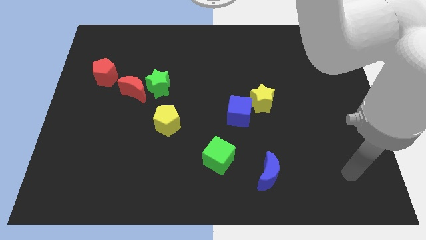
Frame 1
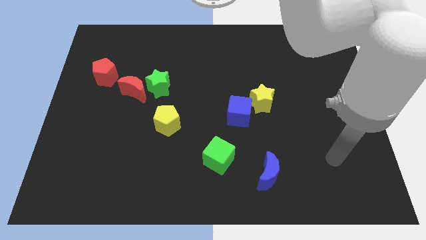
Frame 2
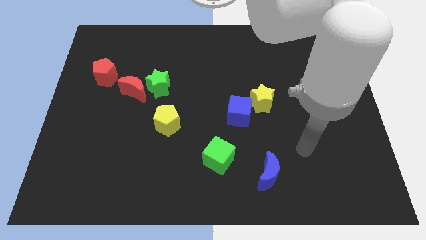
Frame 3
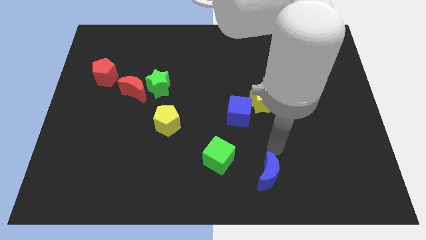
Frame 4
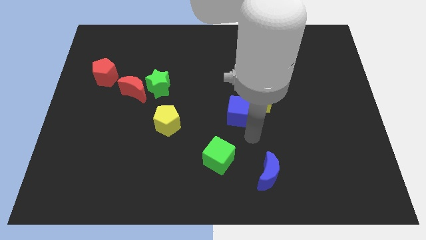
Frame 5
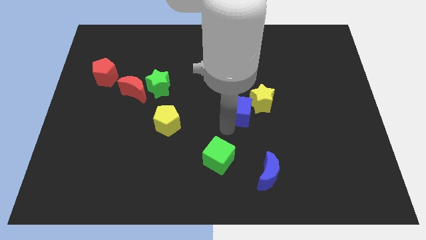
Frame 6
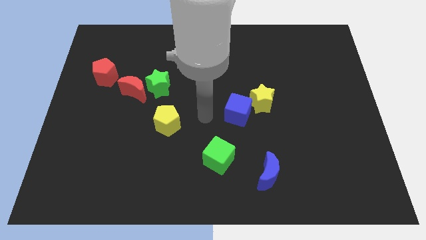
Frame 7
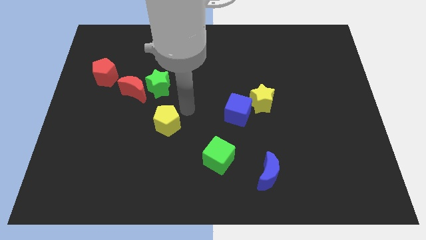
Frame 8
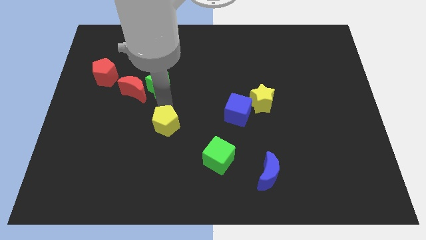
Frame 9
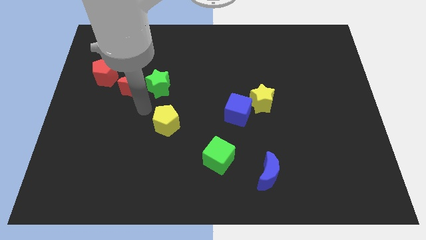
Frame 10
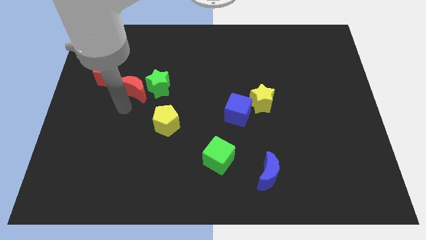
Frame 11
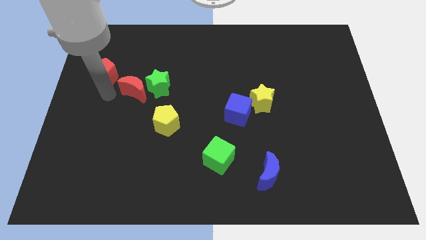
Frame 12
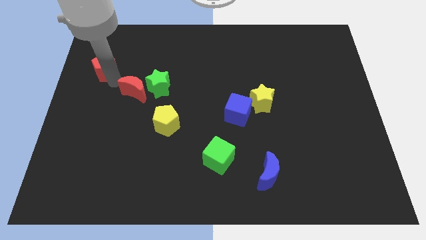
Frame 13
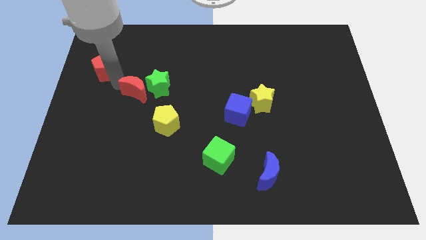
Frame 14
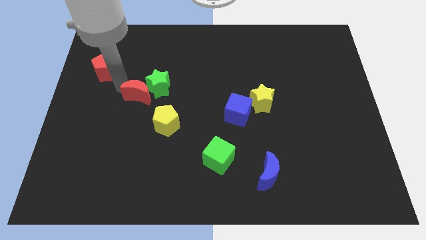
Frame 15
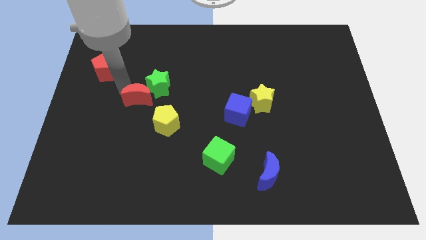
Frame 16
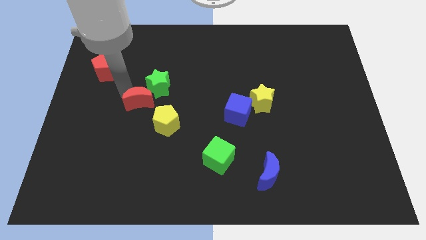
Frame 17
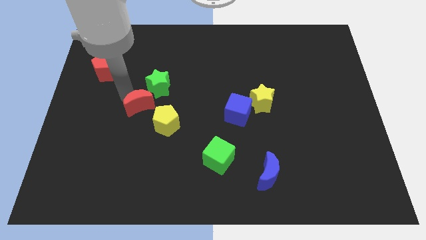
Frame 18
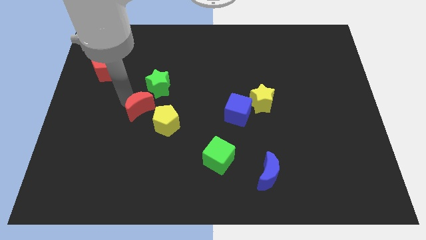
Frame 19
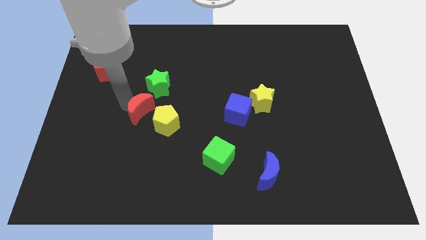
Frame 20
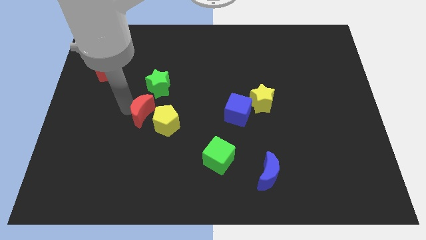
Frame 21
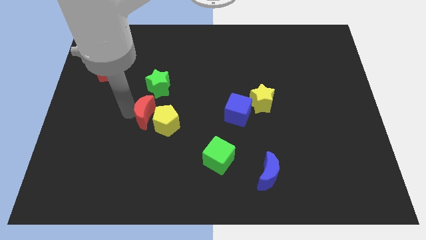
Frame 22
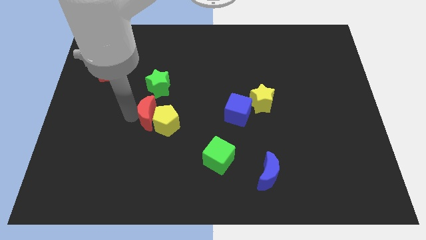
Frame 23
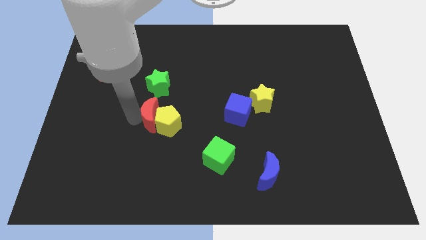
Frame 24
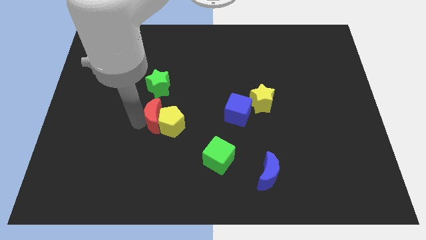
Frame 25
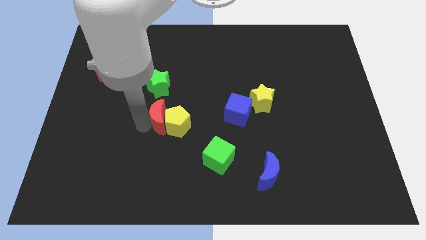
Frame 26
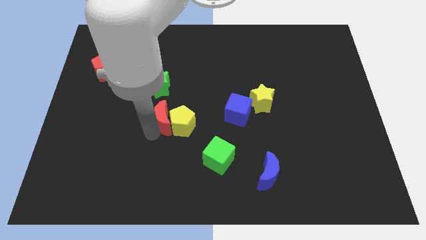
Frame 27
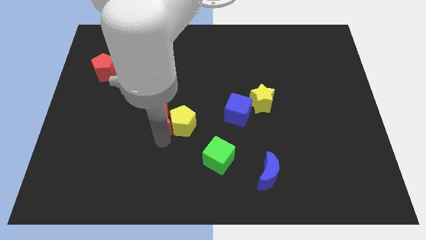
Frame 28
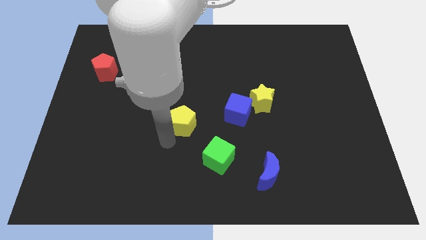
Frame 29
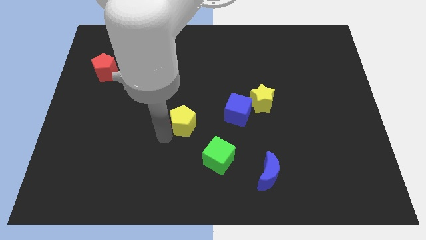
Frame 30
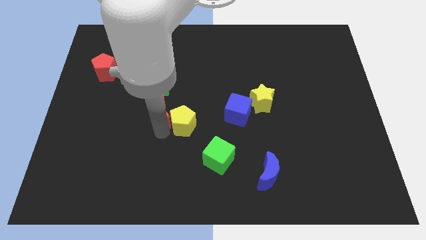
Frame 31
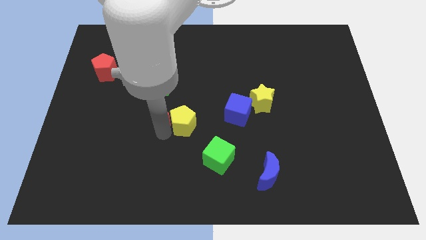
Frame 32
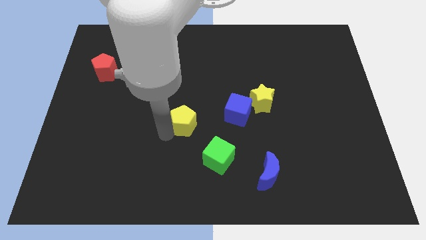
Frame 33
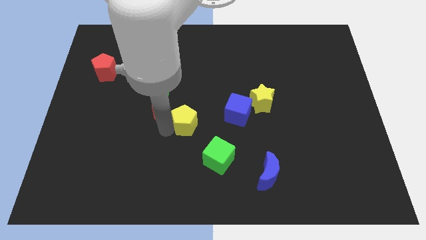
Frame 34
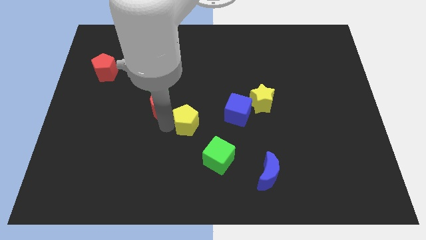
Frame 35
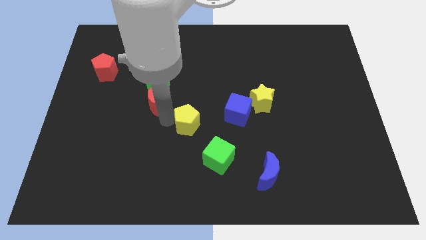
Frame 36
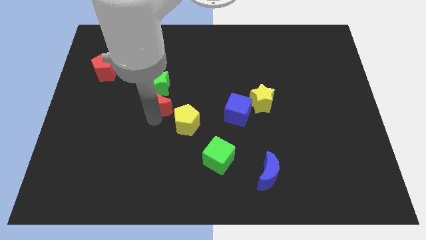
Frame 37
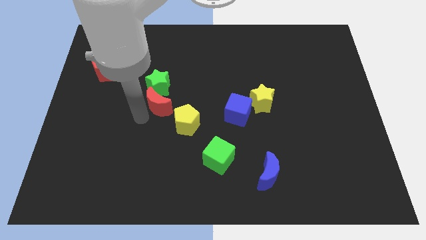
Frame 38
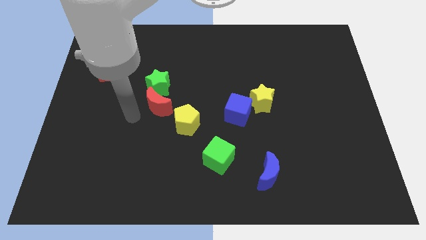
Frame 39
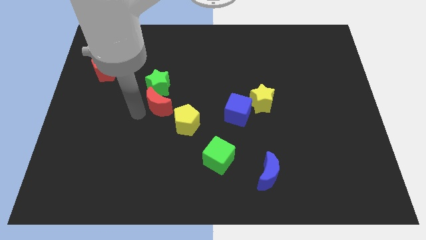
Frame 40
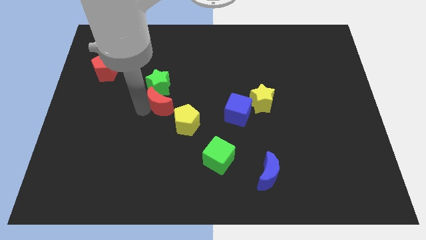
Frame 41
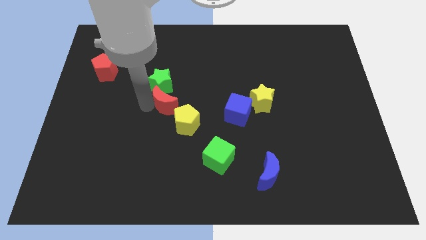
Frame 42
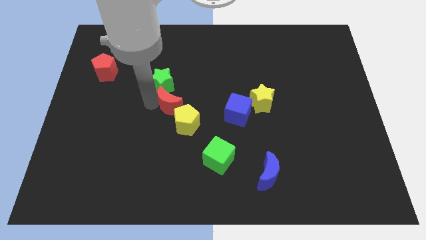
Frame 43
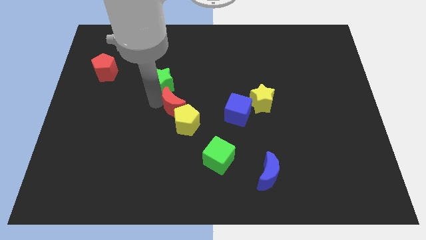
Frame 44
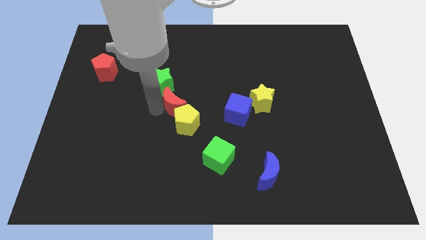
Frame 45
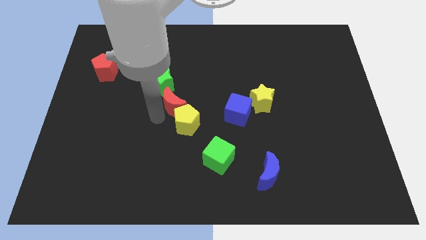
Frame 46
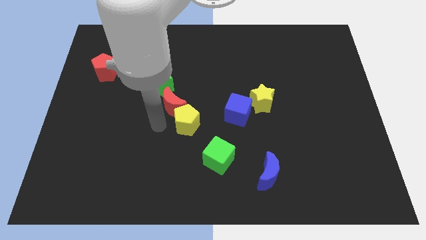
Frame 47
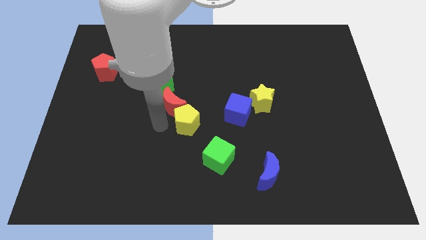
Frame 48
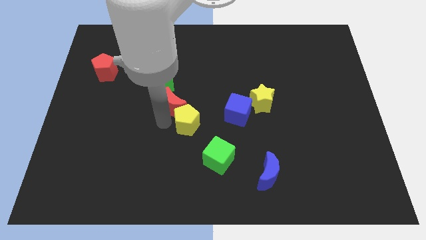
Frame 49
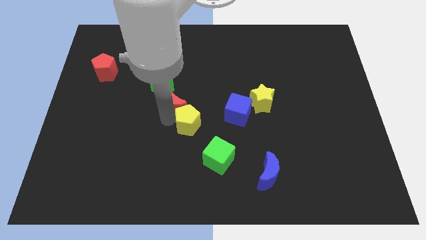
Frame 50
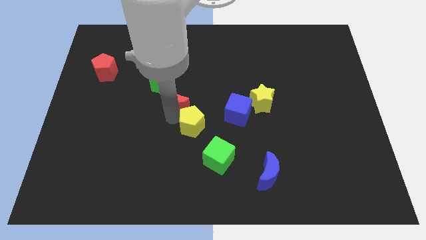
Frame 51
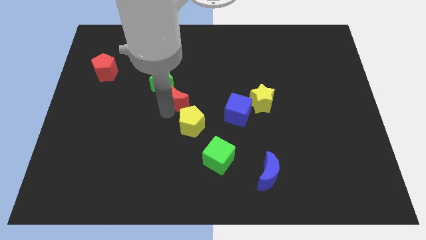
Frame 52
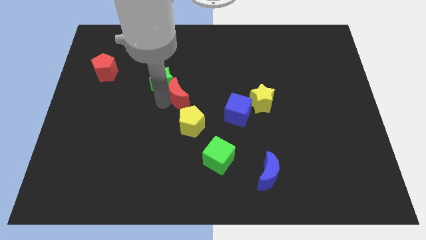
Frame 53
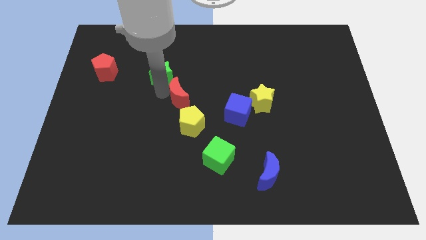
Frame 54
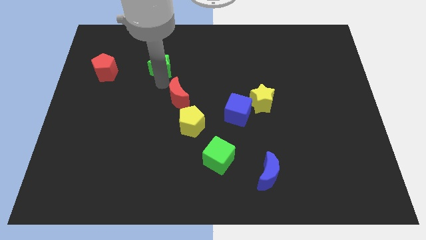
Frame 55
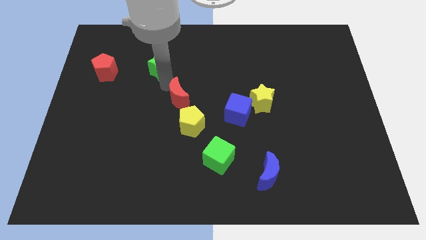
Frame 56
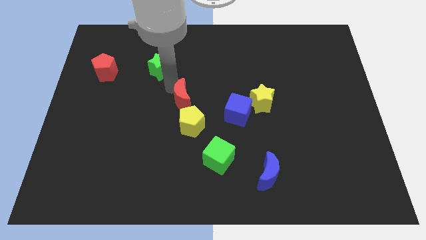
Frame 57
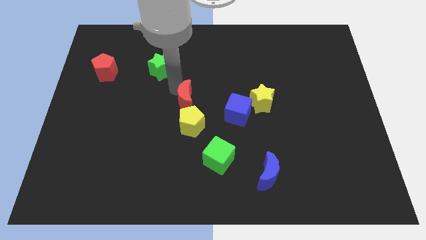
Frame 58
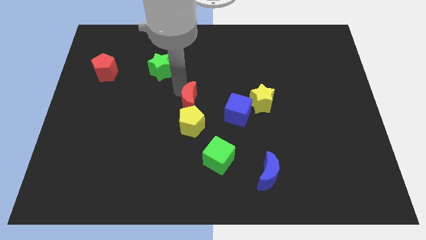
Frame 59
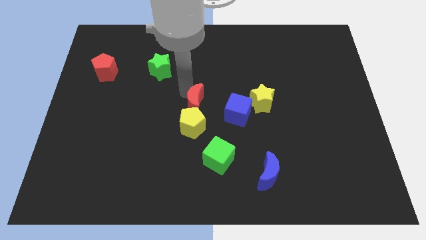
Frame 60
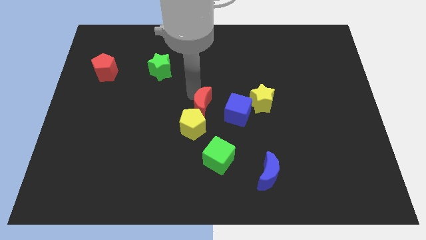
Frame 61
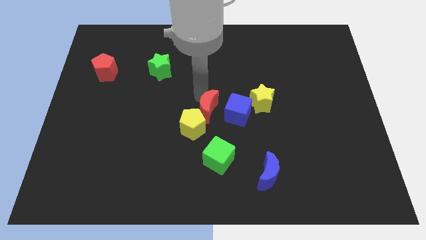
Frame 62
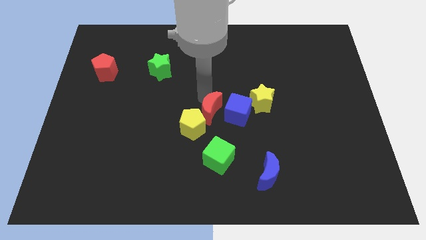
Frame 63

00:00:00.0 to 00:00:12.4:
put the red moon right of the yellow pentagon

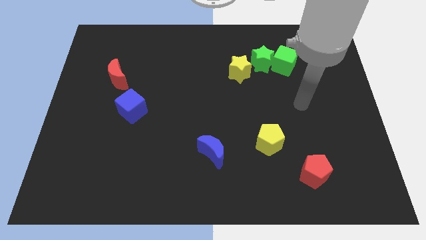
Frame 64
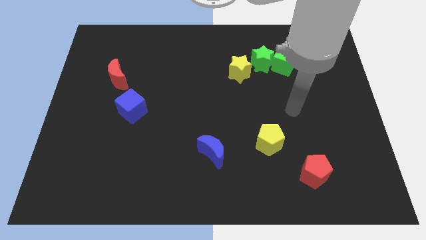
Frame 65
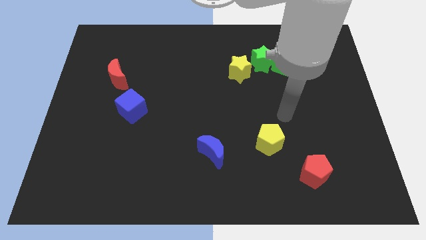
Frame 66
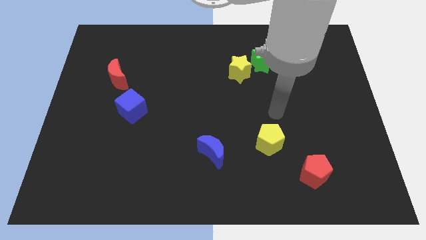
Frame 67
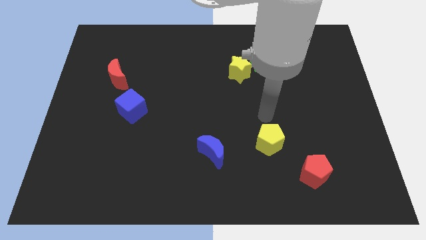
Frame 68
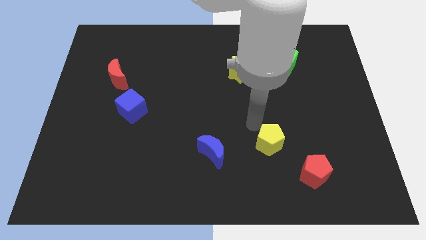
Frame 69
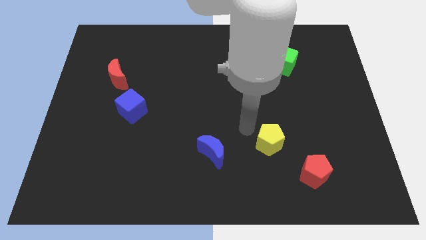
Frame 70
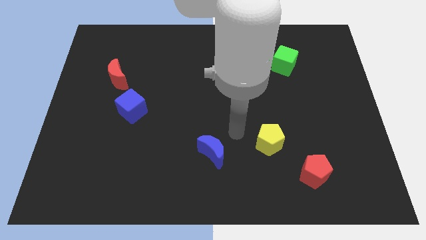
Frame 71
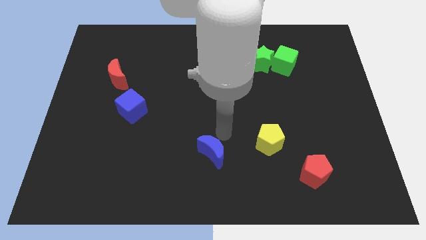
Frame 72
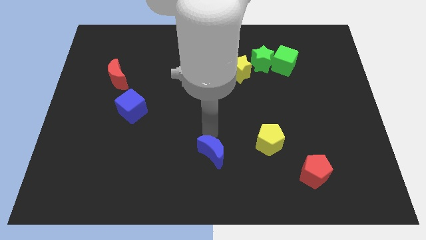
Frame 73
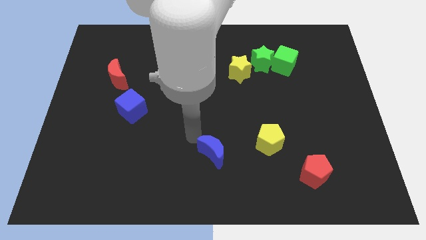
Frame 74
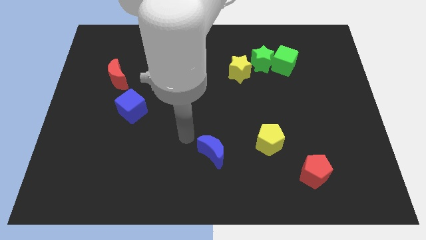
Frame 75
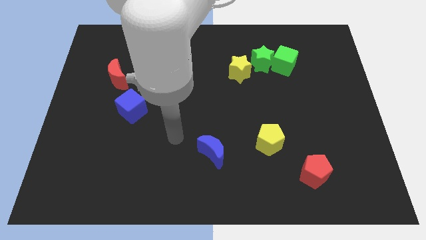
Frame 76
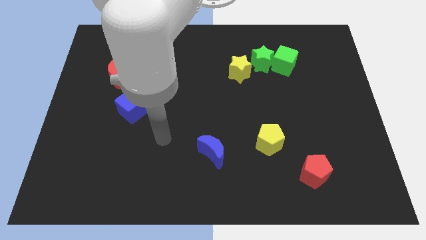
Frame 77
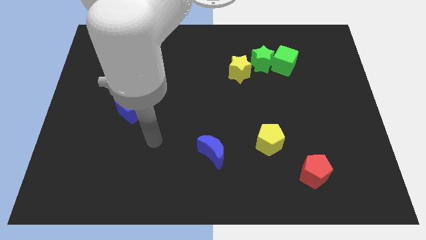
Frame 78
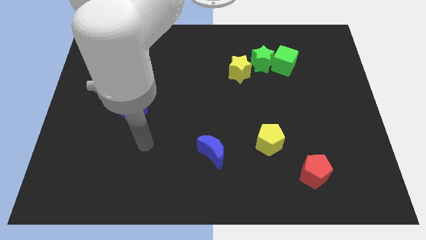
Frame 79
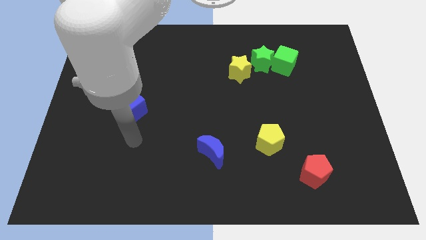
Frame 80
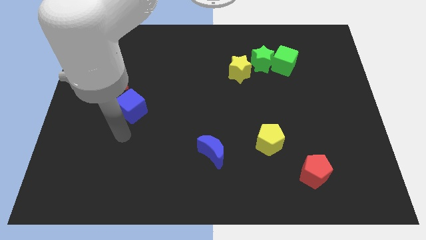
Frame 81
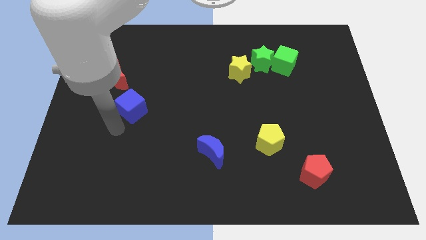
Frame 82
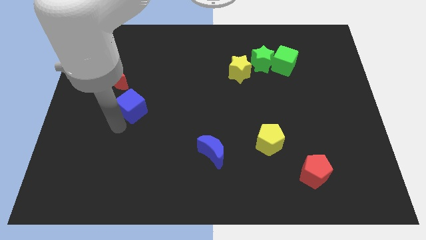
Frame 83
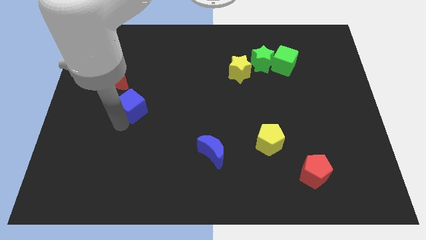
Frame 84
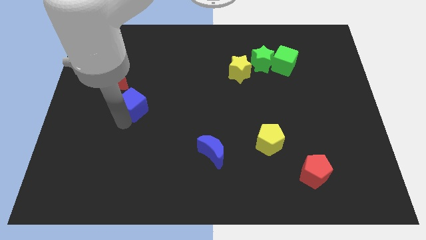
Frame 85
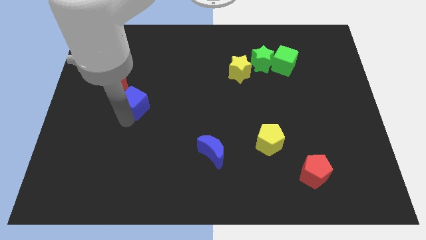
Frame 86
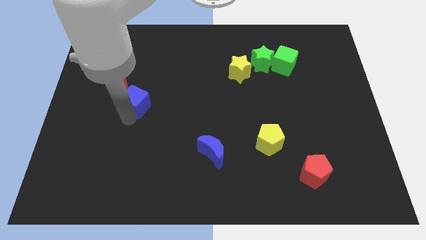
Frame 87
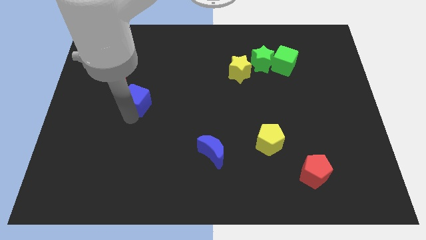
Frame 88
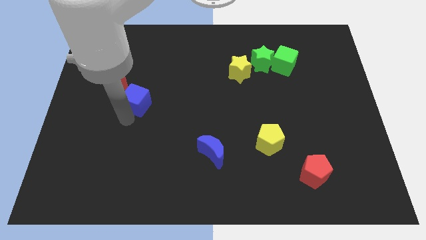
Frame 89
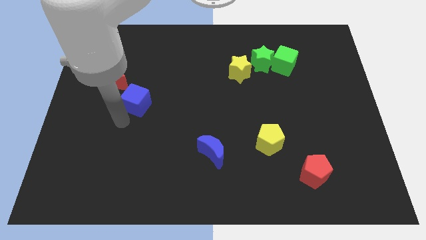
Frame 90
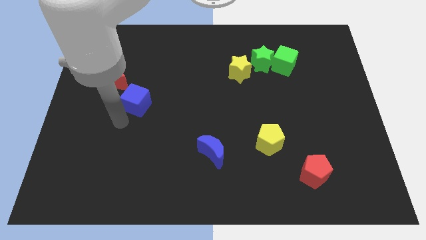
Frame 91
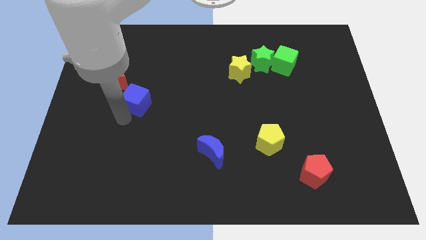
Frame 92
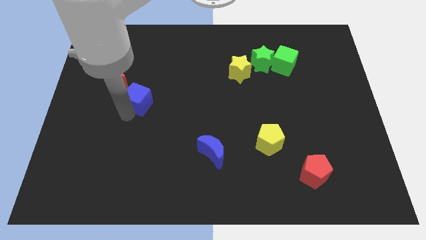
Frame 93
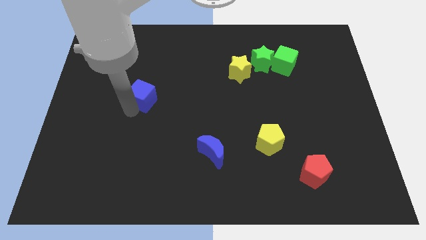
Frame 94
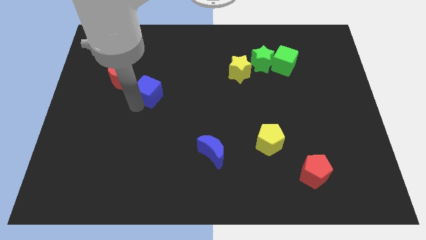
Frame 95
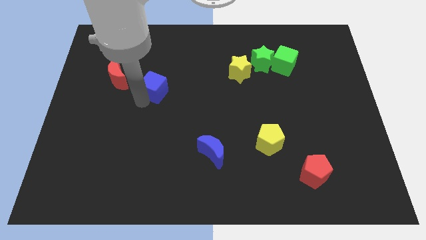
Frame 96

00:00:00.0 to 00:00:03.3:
push the blue cube just right of the red moon
